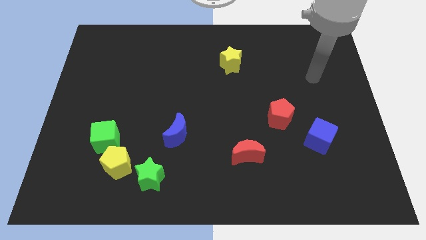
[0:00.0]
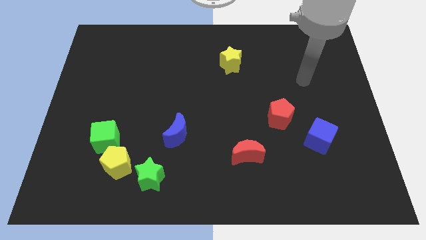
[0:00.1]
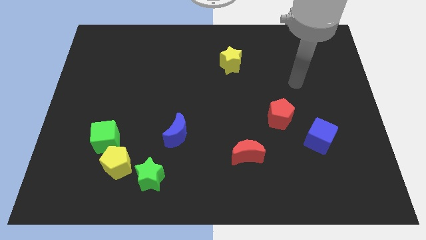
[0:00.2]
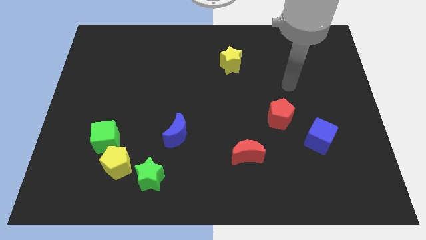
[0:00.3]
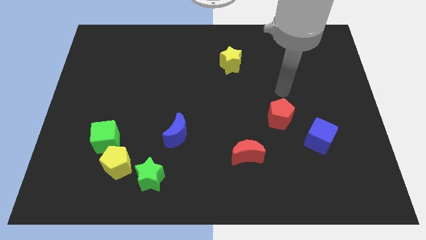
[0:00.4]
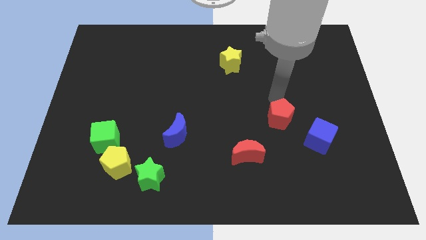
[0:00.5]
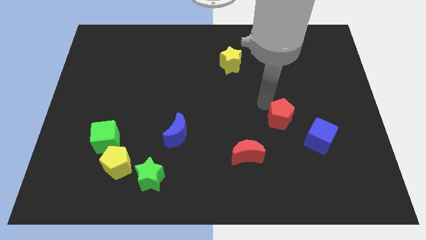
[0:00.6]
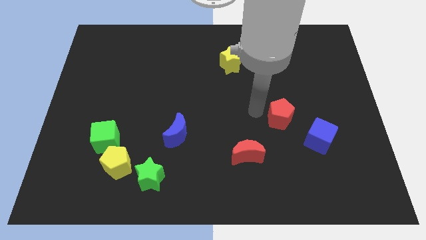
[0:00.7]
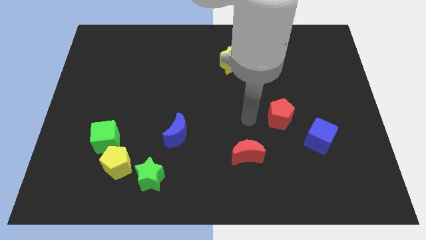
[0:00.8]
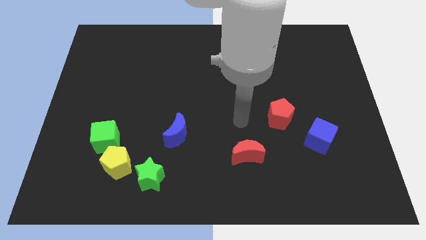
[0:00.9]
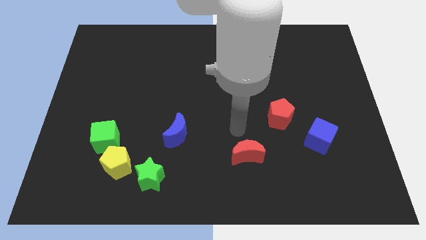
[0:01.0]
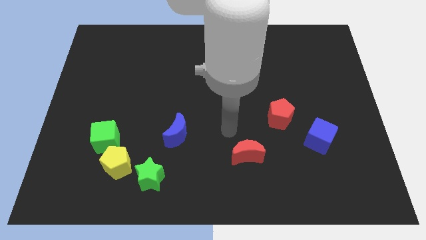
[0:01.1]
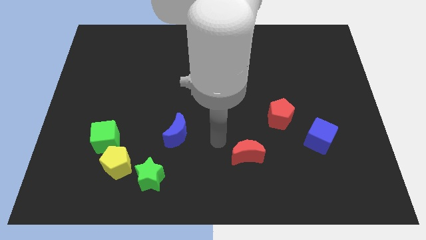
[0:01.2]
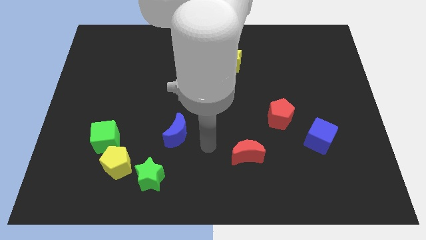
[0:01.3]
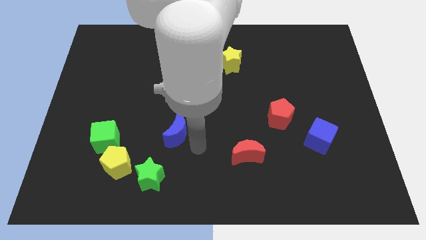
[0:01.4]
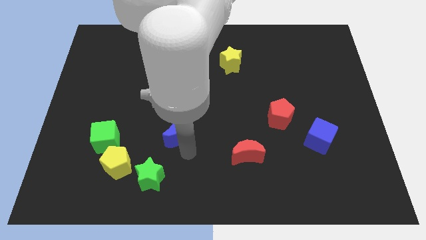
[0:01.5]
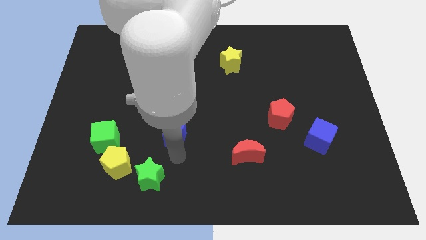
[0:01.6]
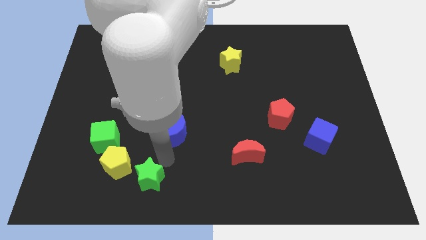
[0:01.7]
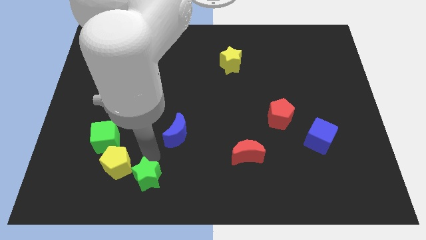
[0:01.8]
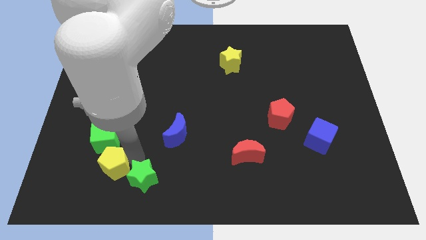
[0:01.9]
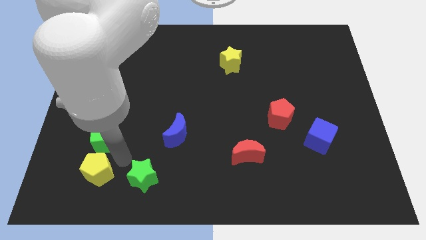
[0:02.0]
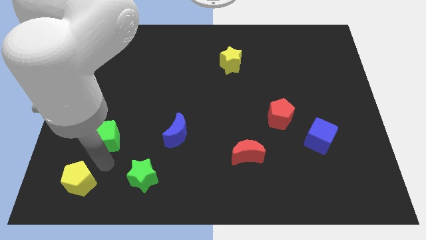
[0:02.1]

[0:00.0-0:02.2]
move the green cube away from the yellow pentagon

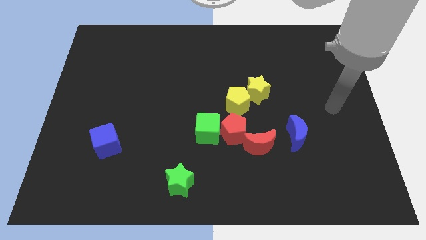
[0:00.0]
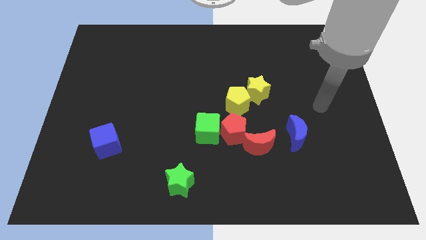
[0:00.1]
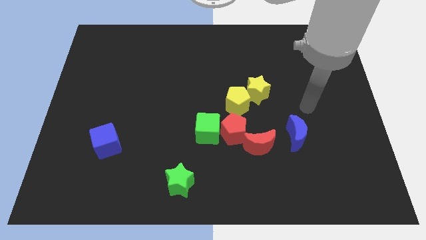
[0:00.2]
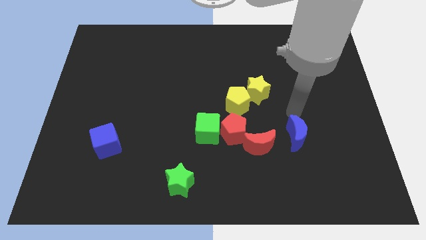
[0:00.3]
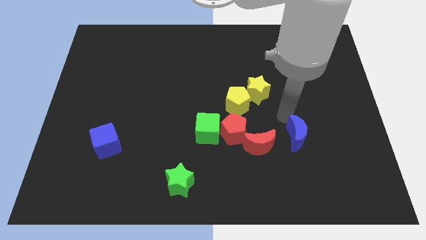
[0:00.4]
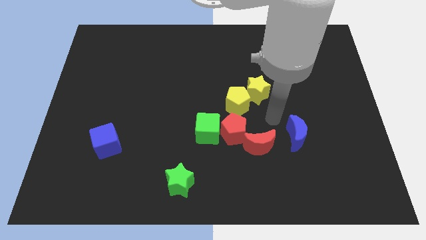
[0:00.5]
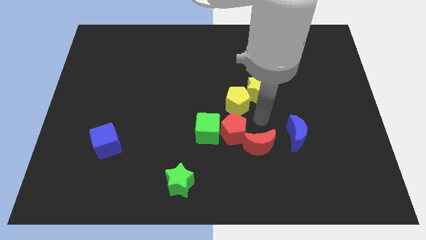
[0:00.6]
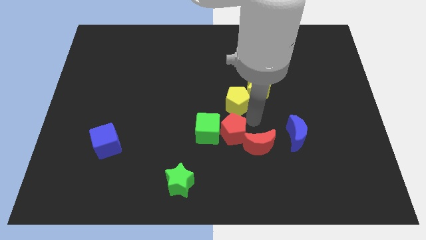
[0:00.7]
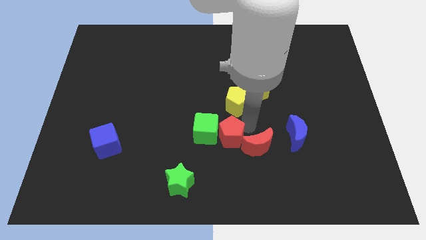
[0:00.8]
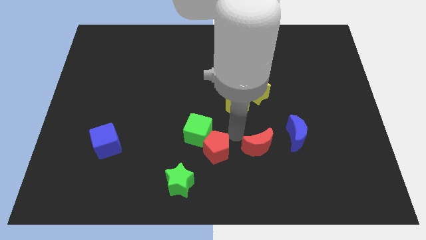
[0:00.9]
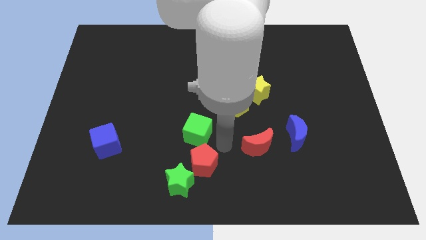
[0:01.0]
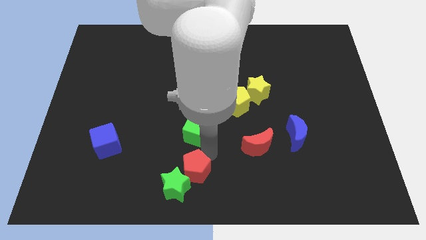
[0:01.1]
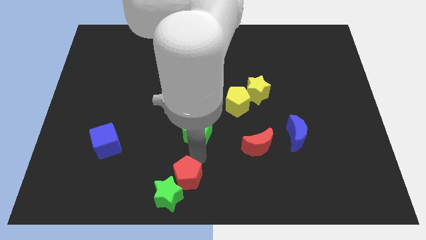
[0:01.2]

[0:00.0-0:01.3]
move the green cube away from the red pentagon

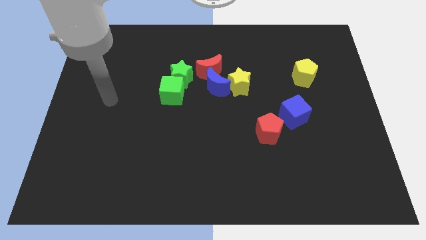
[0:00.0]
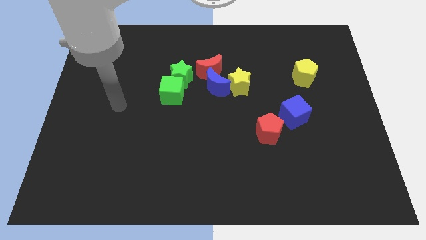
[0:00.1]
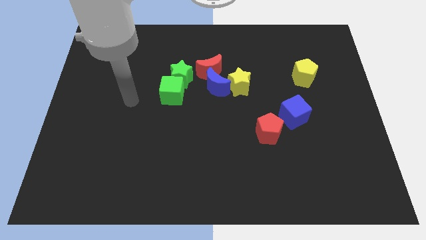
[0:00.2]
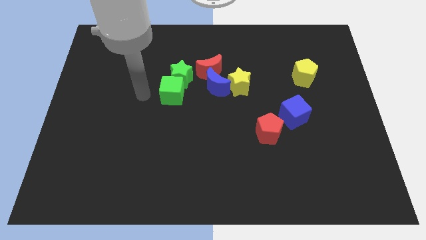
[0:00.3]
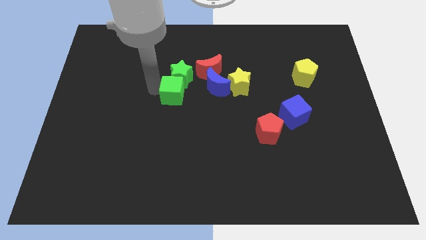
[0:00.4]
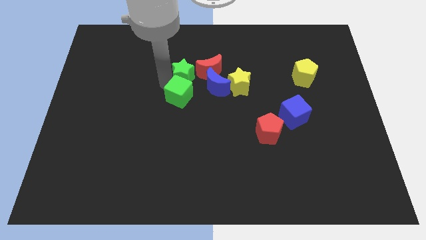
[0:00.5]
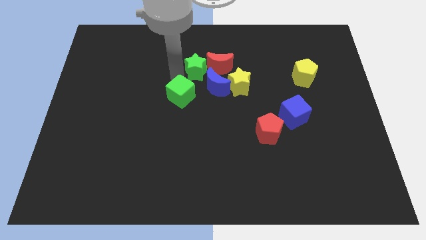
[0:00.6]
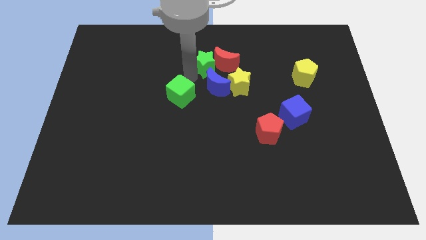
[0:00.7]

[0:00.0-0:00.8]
pull the green cube apart from the green star

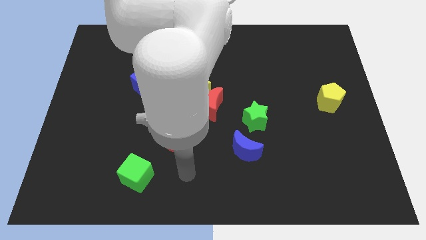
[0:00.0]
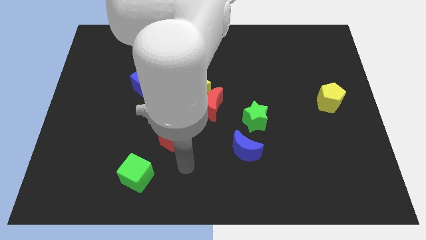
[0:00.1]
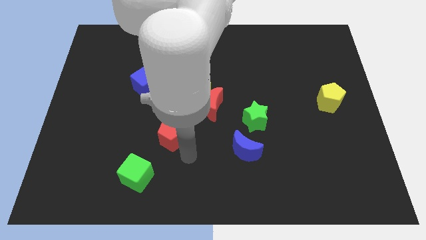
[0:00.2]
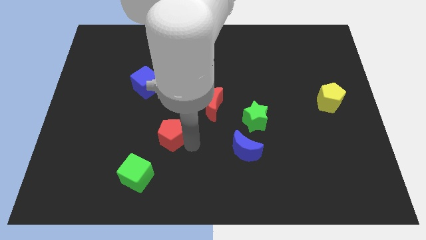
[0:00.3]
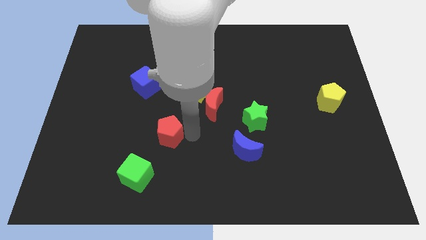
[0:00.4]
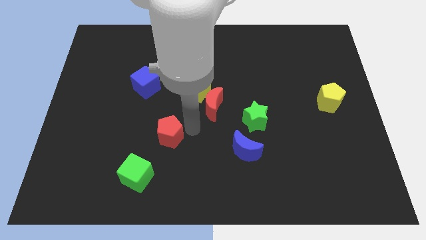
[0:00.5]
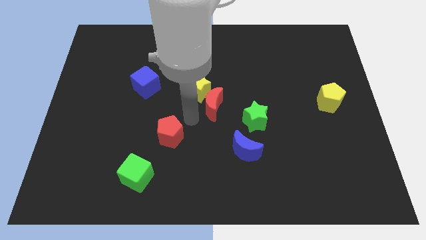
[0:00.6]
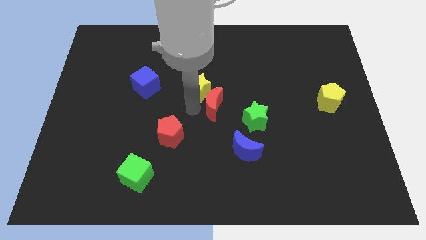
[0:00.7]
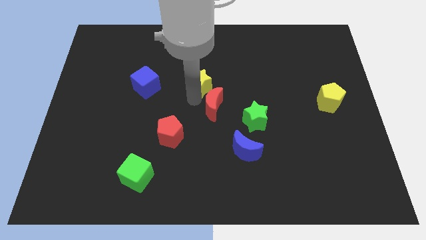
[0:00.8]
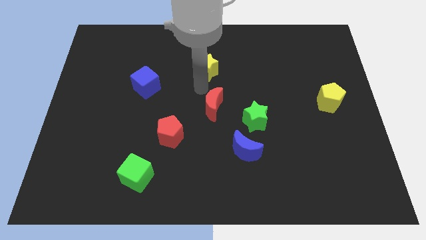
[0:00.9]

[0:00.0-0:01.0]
move the red moon away from the yellow star

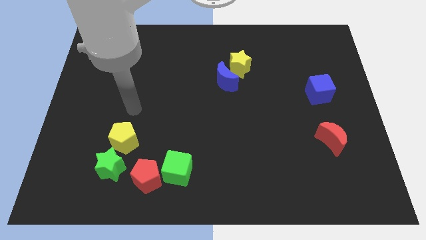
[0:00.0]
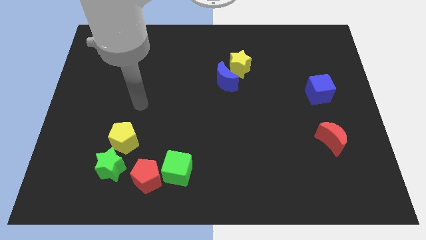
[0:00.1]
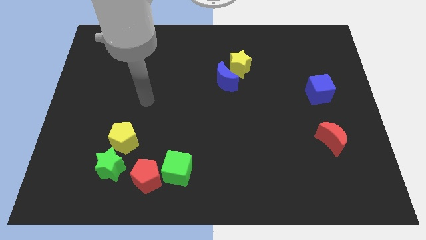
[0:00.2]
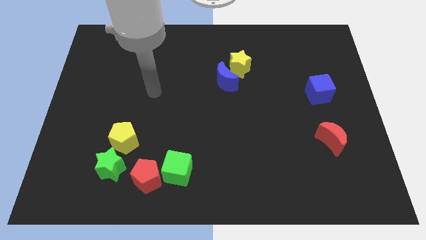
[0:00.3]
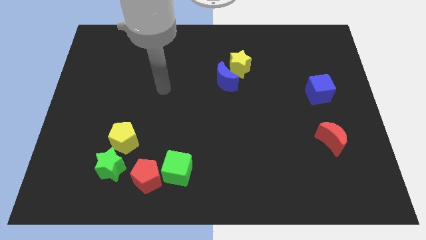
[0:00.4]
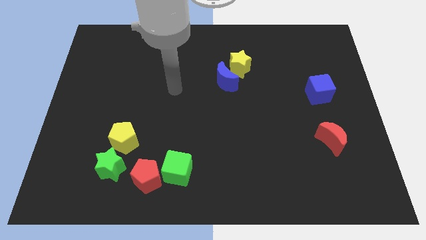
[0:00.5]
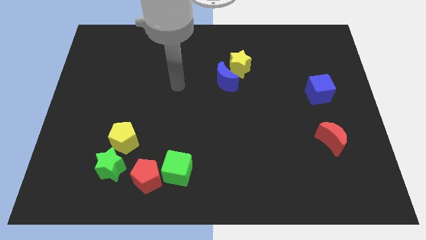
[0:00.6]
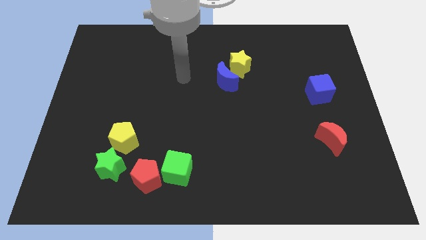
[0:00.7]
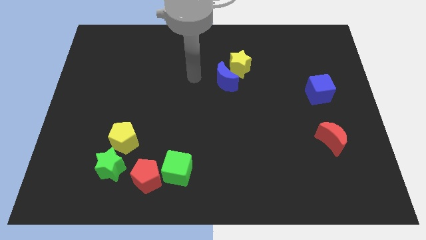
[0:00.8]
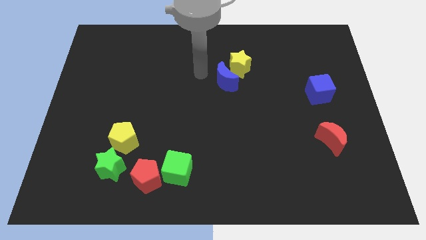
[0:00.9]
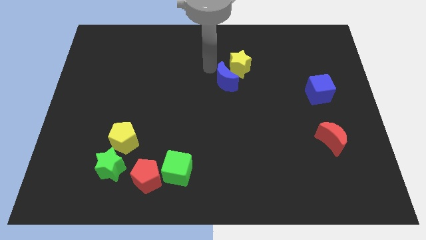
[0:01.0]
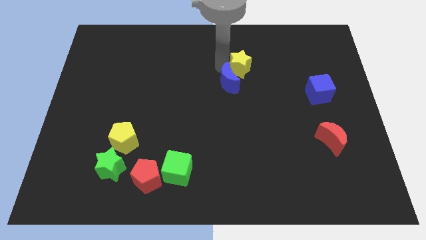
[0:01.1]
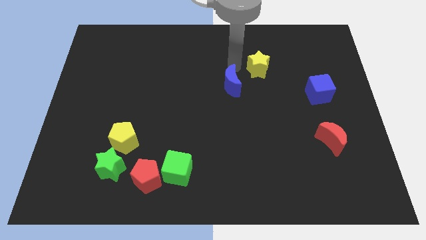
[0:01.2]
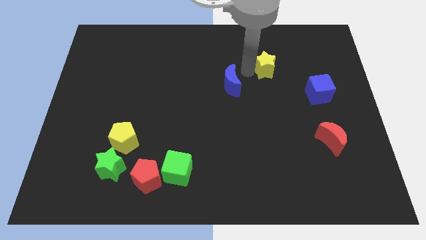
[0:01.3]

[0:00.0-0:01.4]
pull the blue moon apart from the yellow star

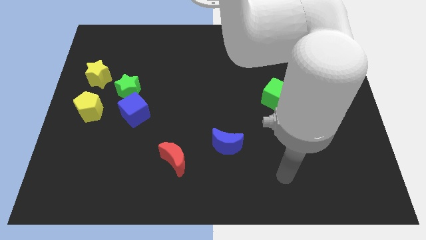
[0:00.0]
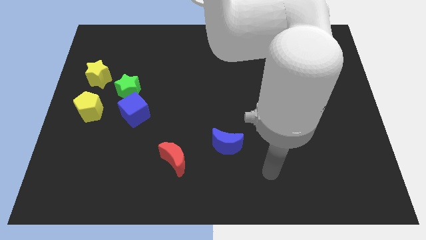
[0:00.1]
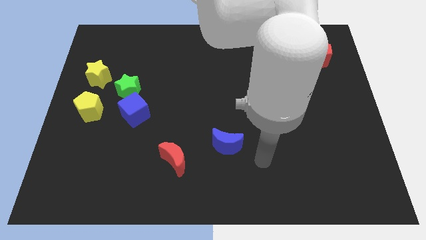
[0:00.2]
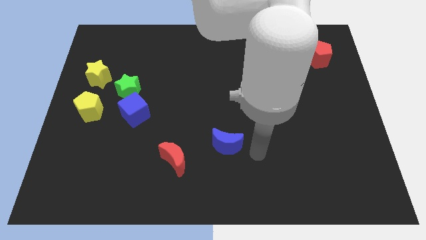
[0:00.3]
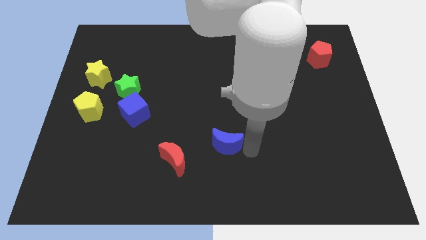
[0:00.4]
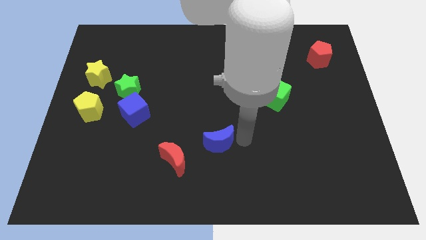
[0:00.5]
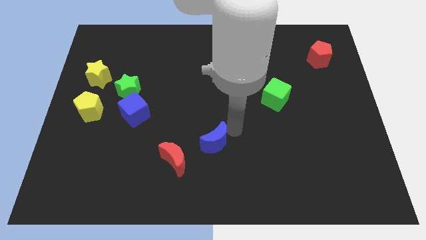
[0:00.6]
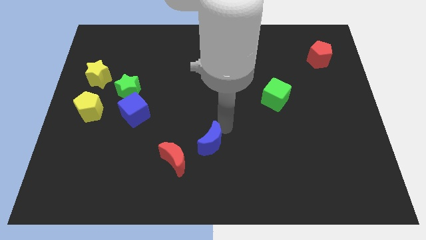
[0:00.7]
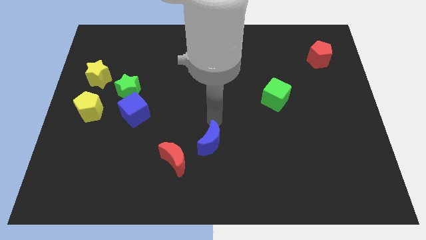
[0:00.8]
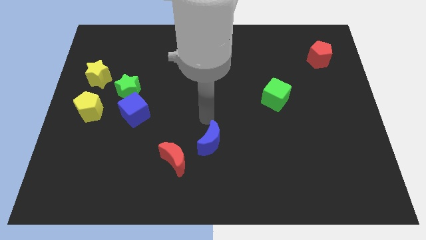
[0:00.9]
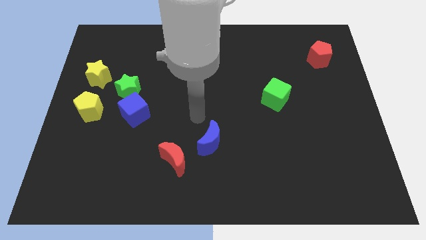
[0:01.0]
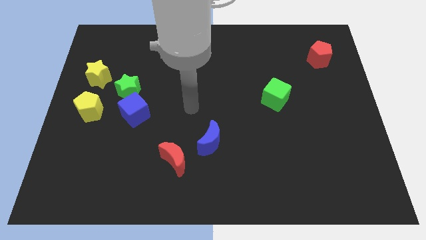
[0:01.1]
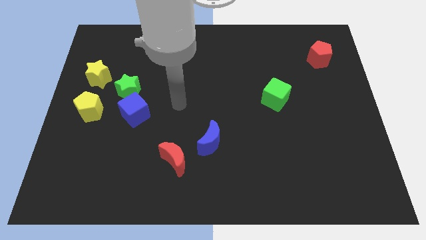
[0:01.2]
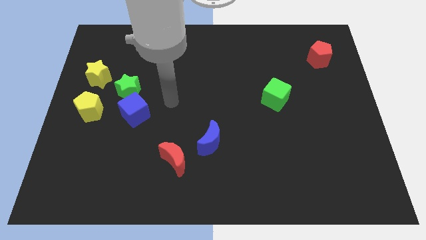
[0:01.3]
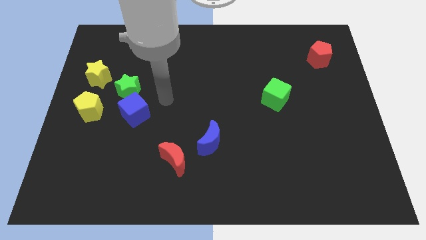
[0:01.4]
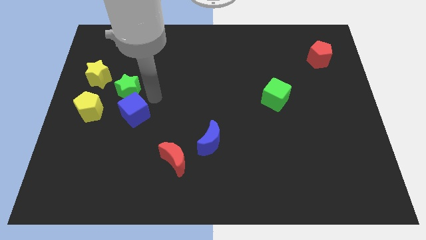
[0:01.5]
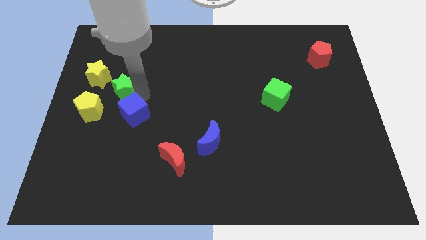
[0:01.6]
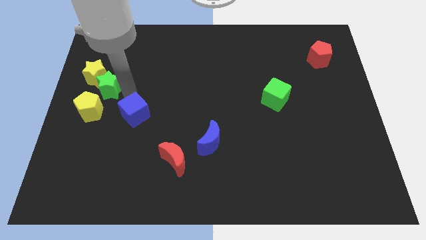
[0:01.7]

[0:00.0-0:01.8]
pull the blue cube apart from the green star

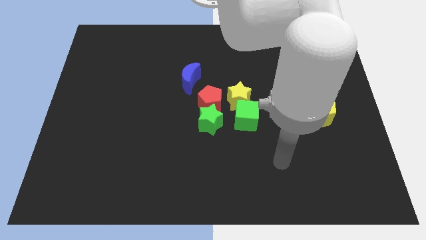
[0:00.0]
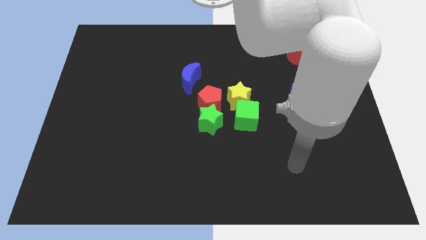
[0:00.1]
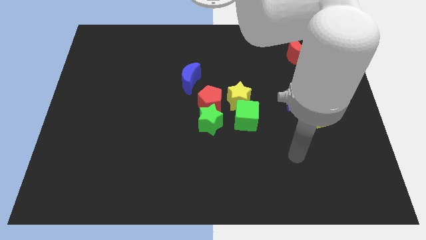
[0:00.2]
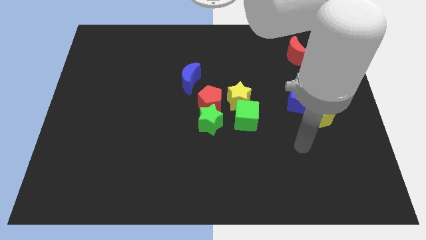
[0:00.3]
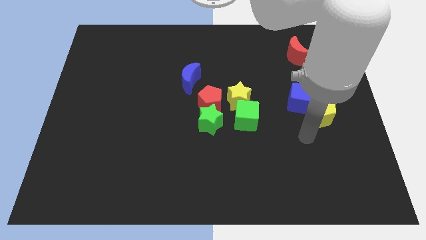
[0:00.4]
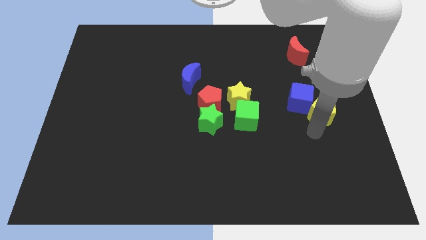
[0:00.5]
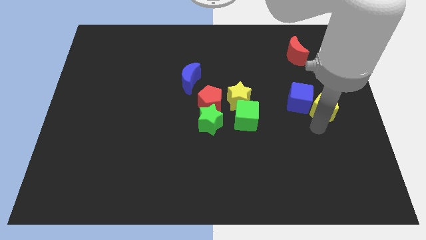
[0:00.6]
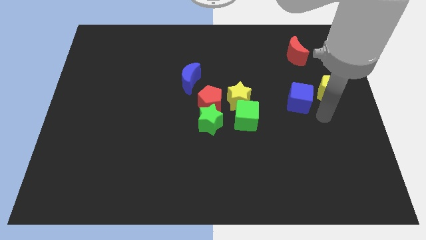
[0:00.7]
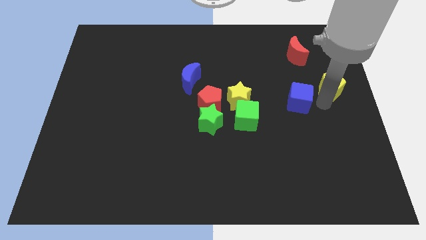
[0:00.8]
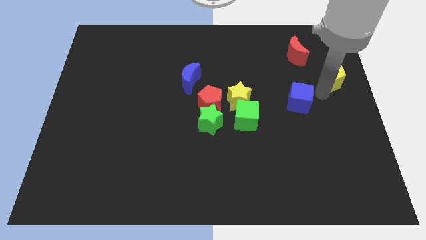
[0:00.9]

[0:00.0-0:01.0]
pull the blue cube apart from the yellow pentagon
